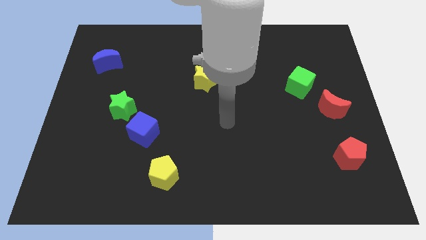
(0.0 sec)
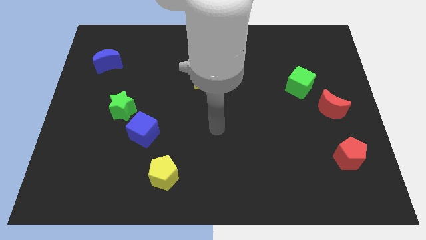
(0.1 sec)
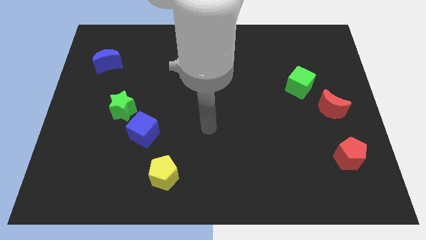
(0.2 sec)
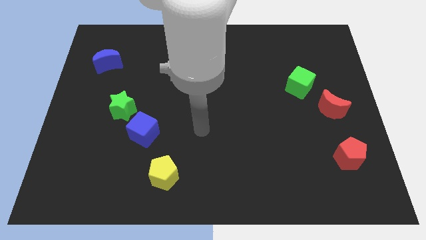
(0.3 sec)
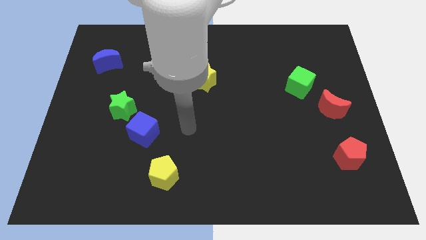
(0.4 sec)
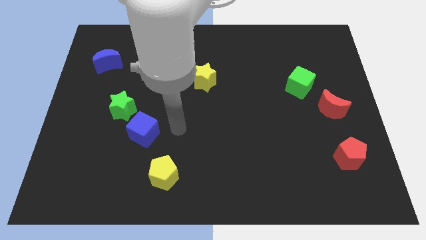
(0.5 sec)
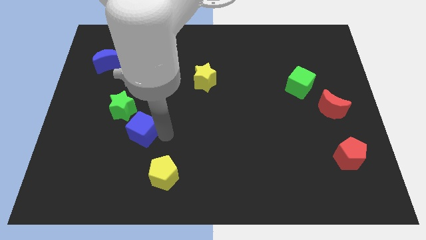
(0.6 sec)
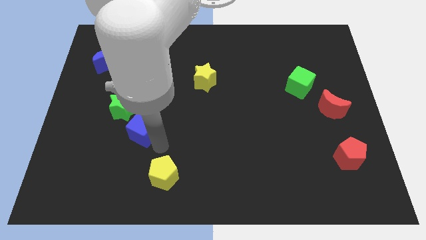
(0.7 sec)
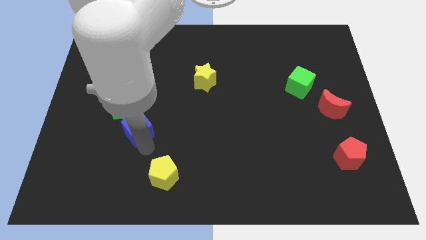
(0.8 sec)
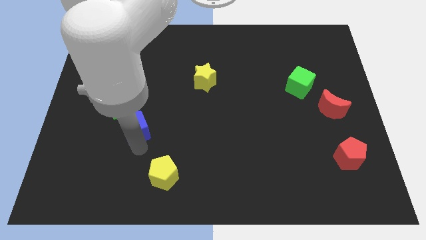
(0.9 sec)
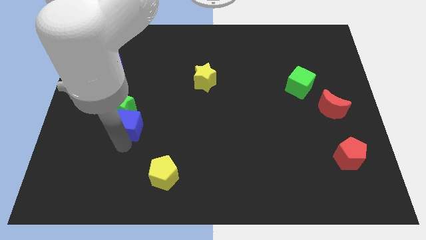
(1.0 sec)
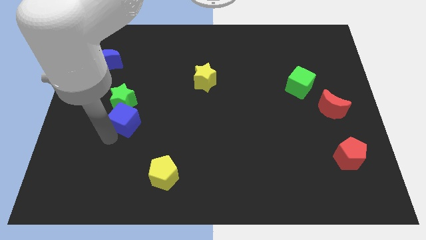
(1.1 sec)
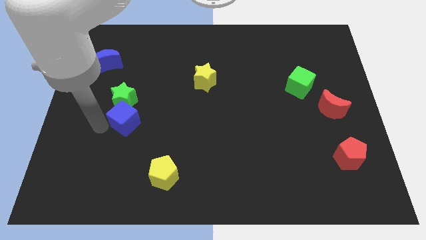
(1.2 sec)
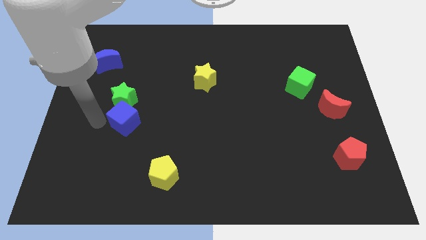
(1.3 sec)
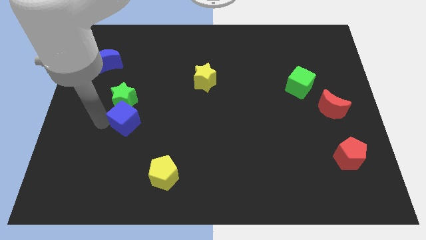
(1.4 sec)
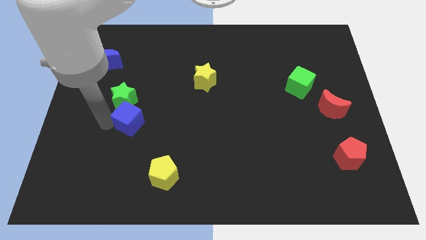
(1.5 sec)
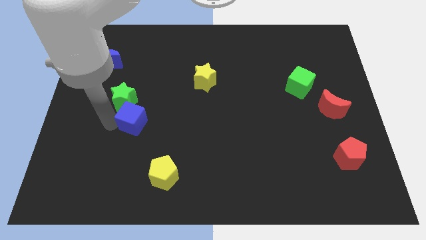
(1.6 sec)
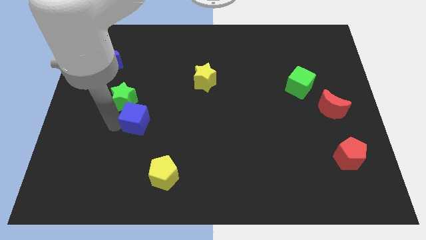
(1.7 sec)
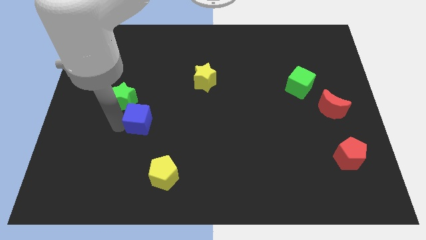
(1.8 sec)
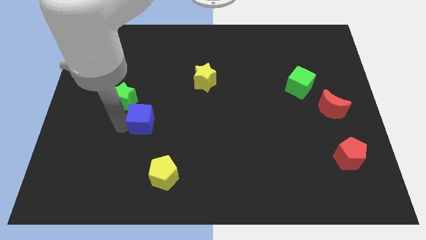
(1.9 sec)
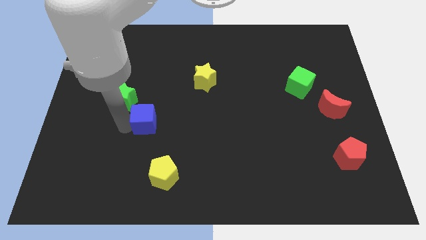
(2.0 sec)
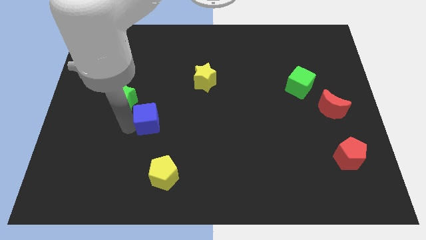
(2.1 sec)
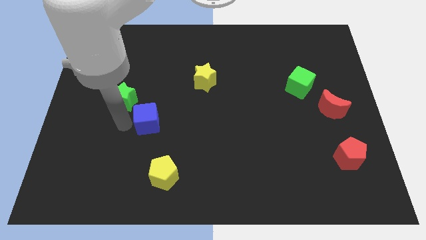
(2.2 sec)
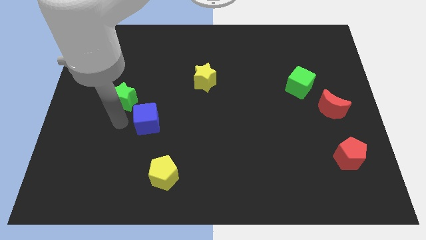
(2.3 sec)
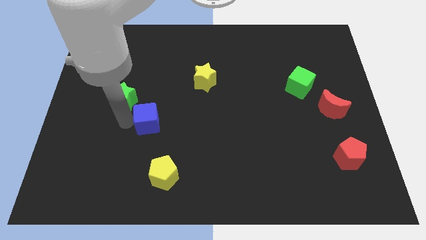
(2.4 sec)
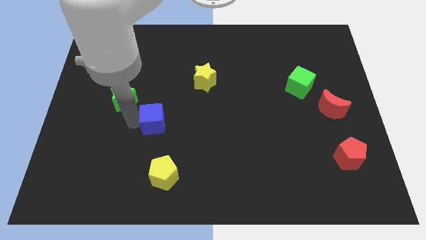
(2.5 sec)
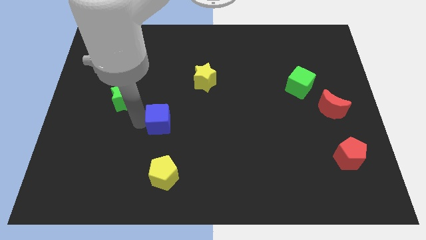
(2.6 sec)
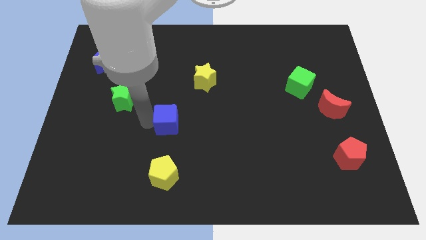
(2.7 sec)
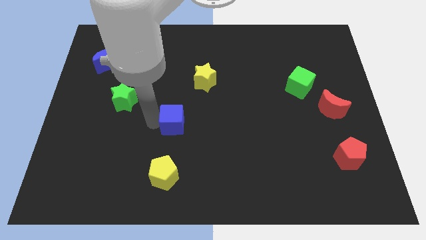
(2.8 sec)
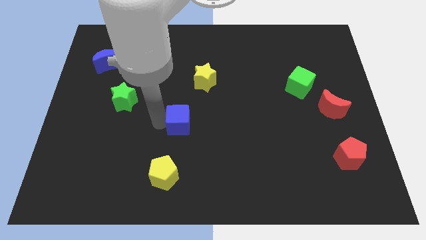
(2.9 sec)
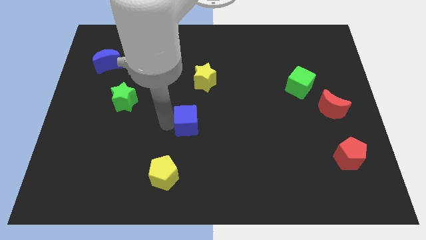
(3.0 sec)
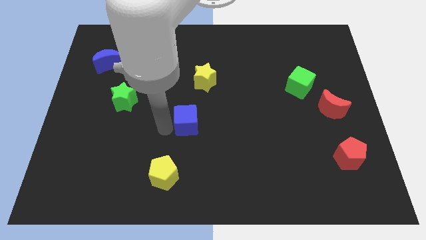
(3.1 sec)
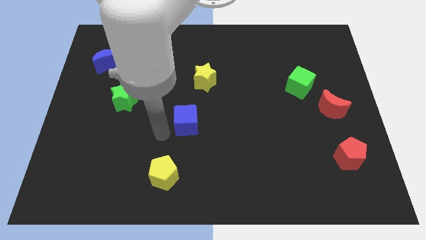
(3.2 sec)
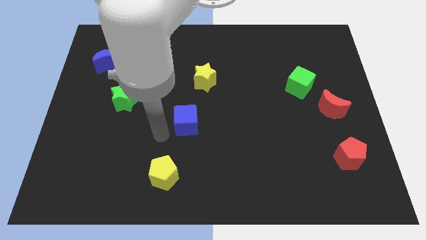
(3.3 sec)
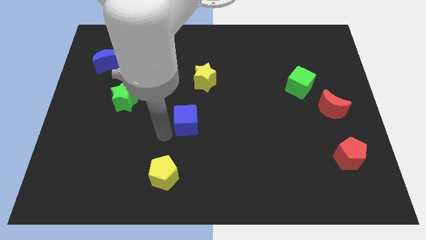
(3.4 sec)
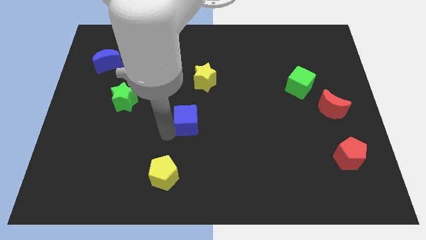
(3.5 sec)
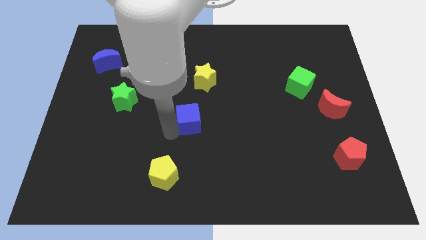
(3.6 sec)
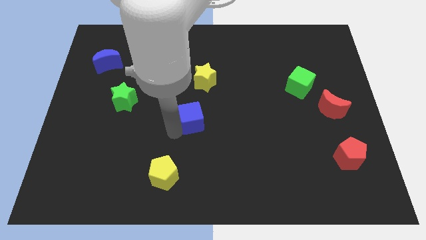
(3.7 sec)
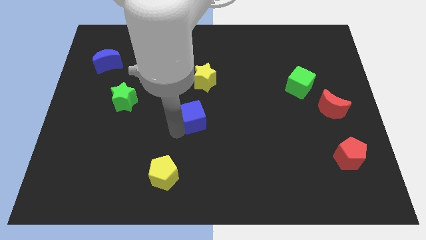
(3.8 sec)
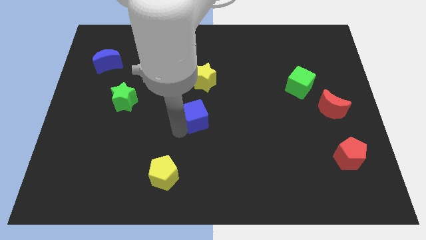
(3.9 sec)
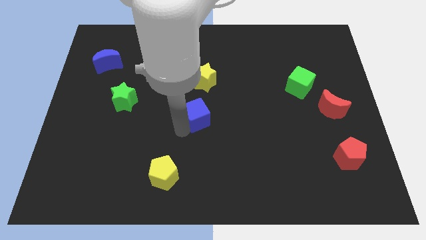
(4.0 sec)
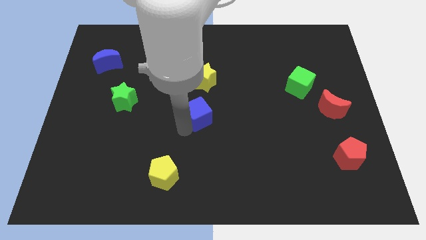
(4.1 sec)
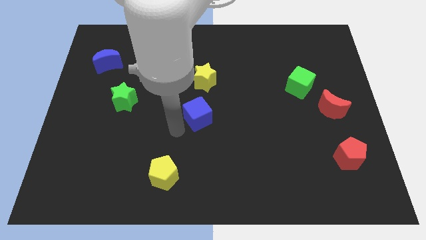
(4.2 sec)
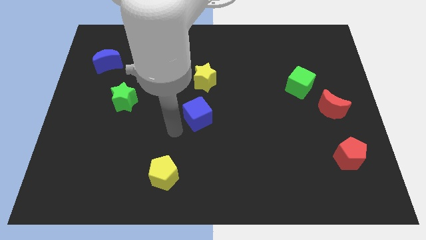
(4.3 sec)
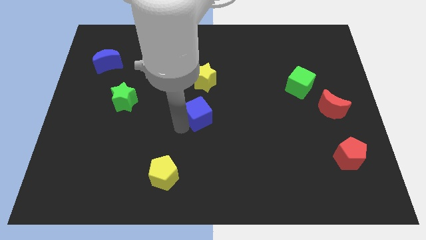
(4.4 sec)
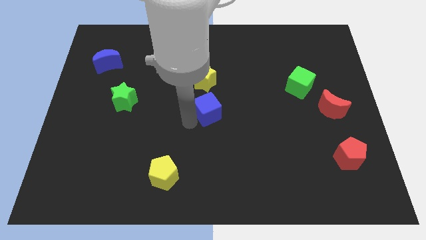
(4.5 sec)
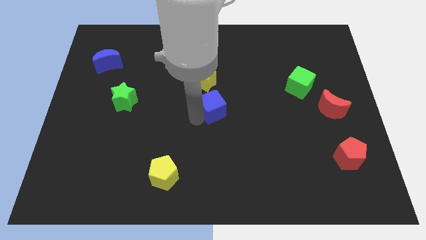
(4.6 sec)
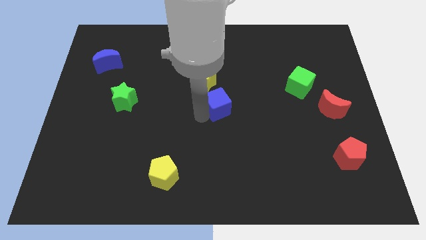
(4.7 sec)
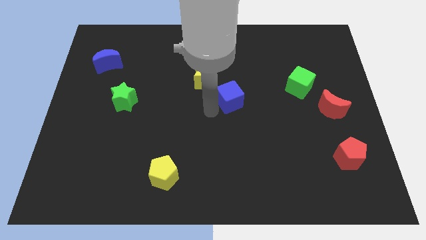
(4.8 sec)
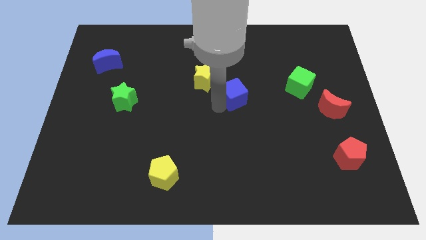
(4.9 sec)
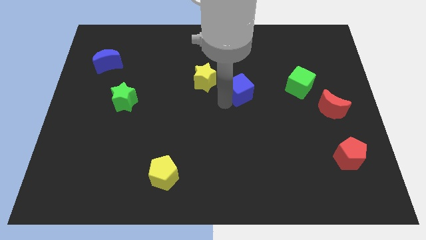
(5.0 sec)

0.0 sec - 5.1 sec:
put the blue cube to the left of the green cube

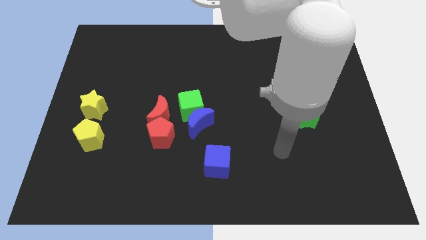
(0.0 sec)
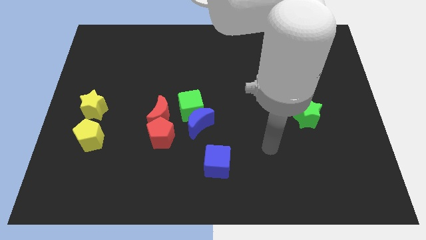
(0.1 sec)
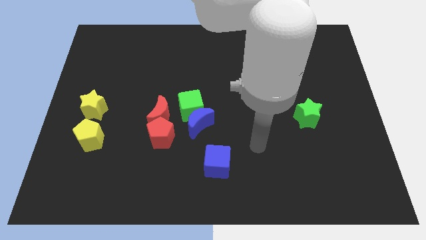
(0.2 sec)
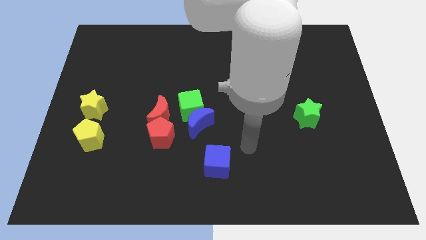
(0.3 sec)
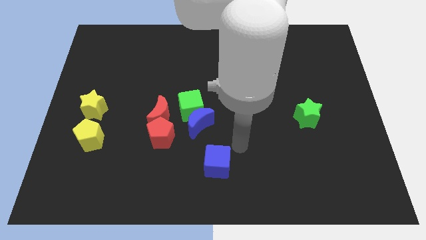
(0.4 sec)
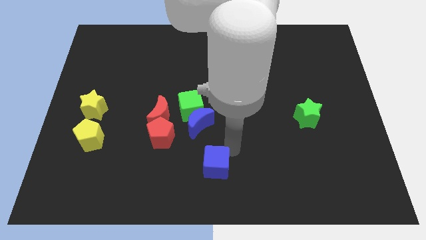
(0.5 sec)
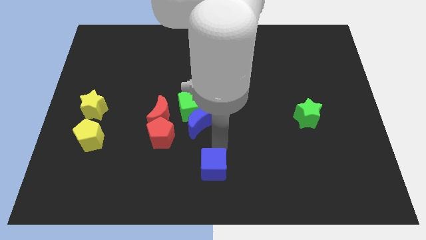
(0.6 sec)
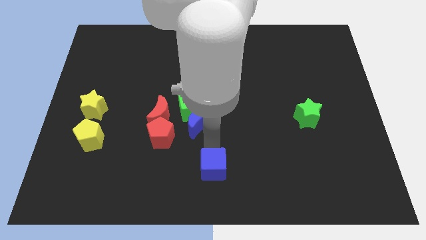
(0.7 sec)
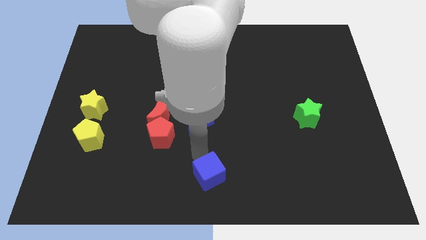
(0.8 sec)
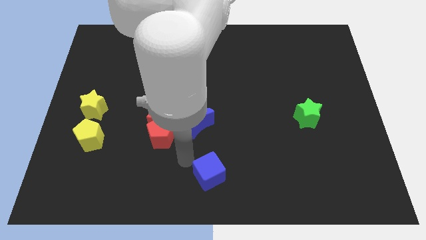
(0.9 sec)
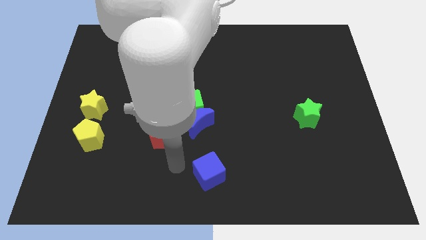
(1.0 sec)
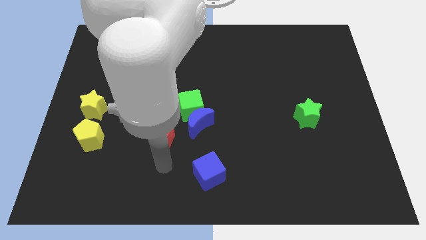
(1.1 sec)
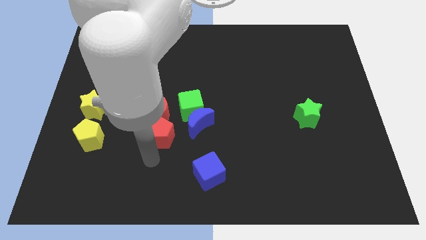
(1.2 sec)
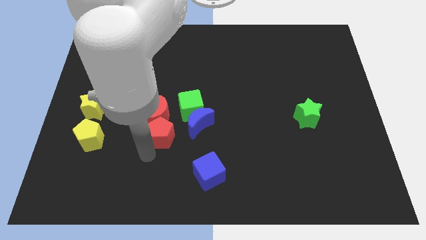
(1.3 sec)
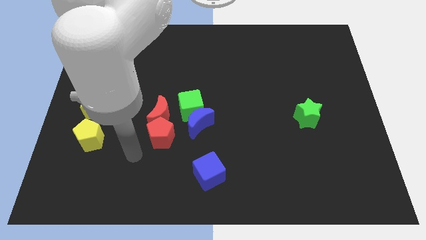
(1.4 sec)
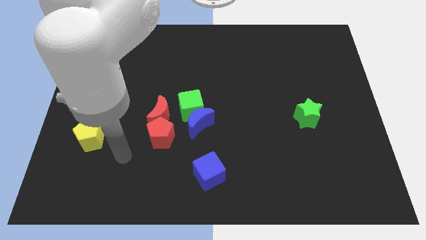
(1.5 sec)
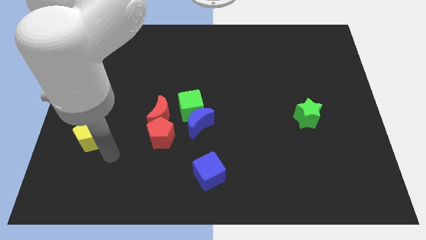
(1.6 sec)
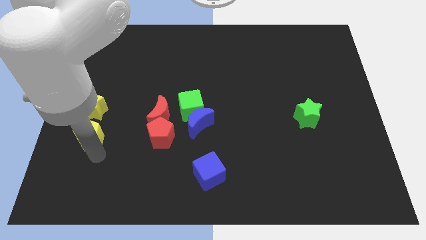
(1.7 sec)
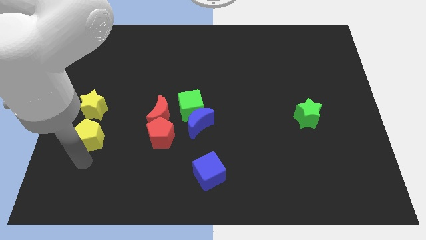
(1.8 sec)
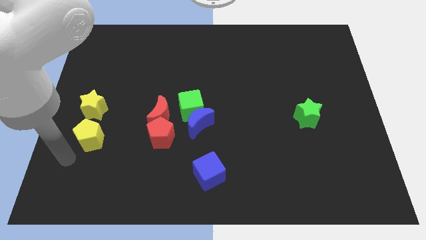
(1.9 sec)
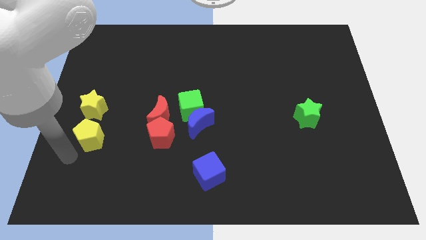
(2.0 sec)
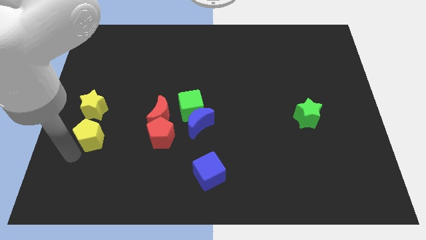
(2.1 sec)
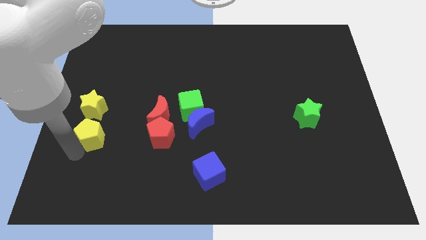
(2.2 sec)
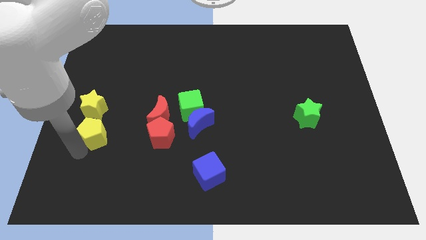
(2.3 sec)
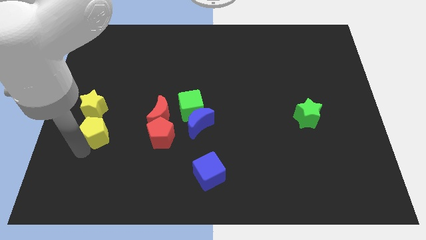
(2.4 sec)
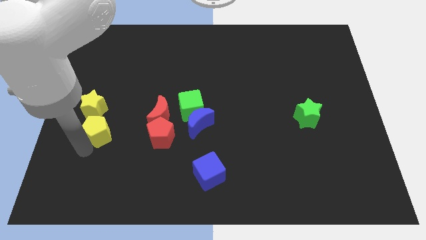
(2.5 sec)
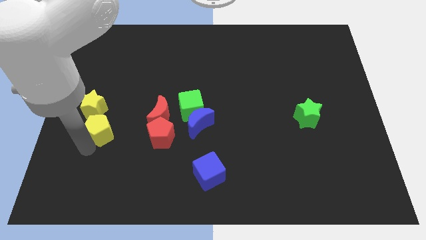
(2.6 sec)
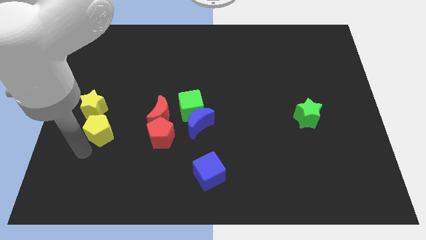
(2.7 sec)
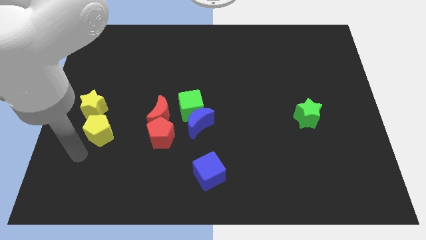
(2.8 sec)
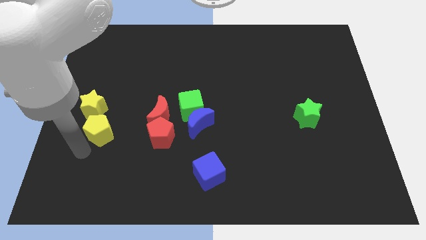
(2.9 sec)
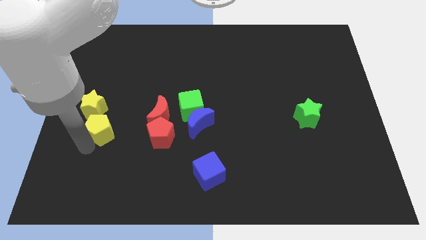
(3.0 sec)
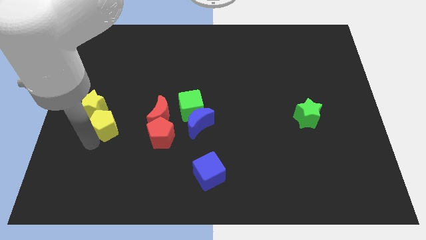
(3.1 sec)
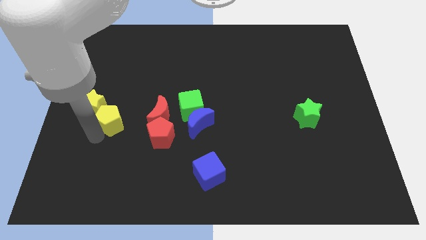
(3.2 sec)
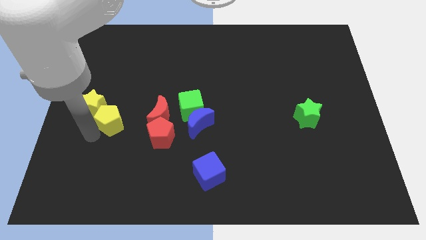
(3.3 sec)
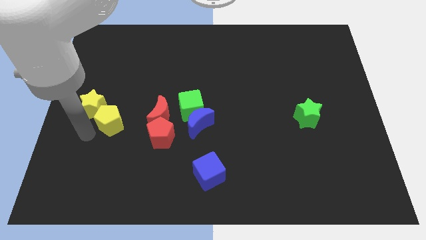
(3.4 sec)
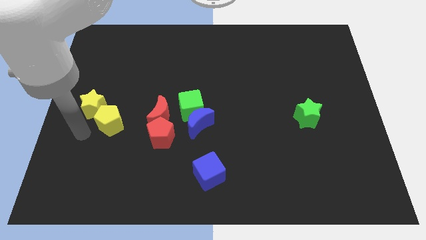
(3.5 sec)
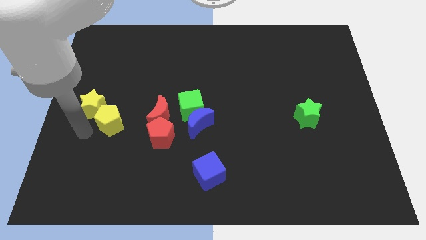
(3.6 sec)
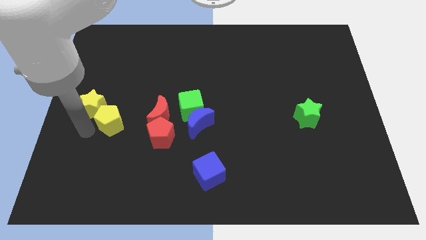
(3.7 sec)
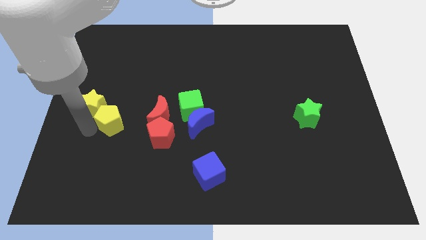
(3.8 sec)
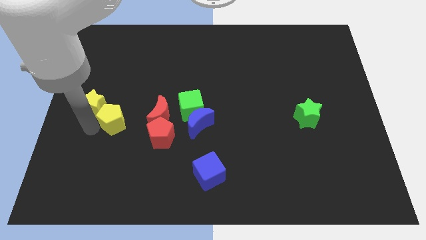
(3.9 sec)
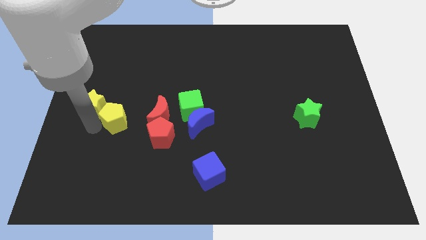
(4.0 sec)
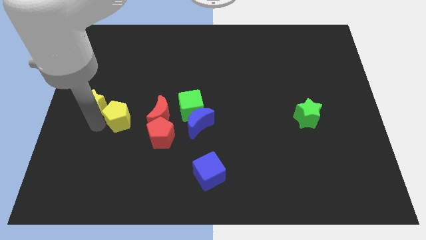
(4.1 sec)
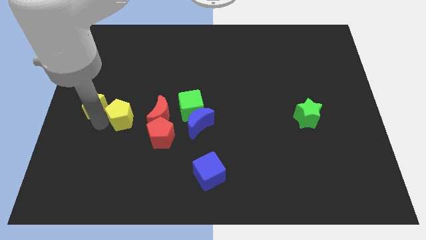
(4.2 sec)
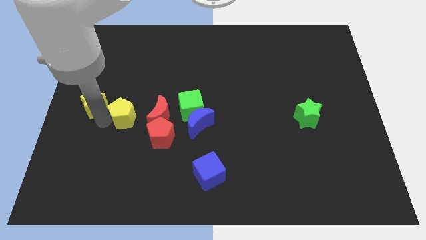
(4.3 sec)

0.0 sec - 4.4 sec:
slide the yellow pentagon to the left side of the green cube
